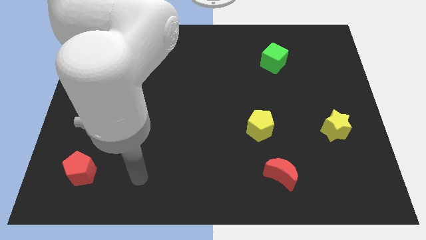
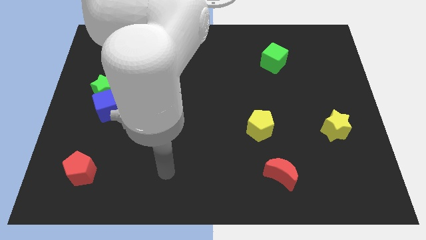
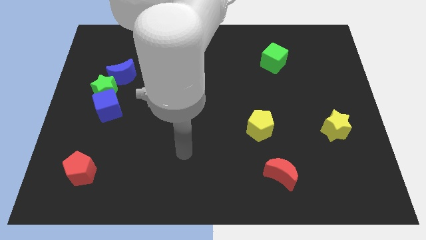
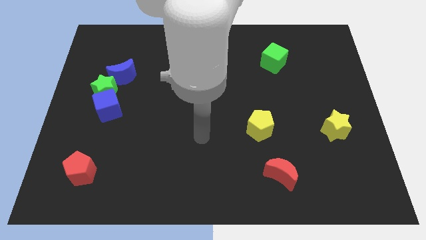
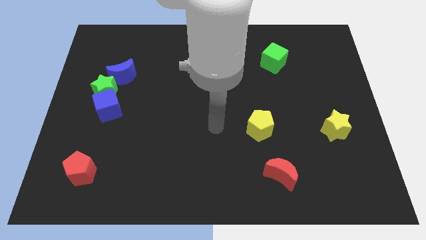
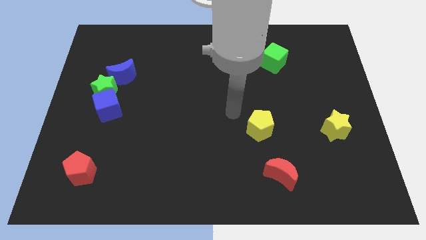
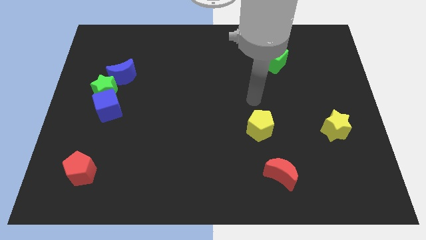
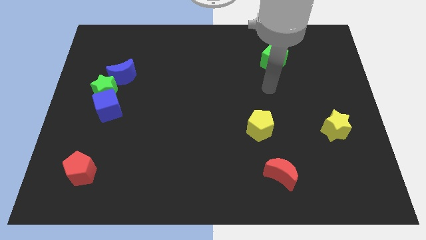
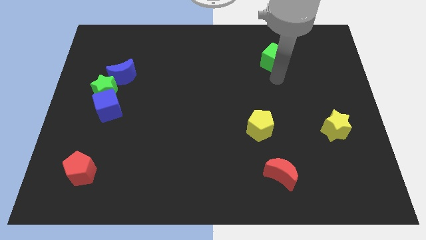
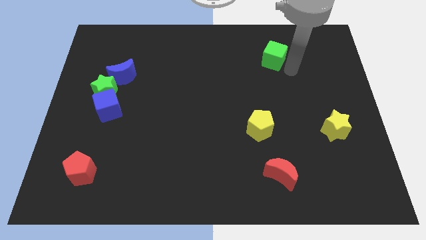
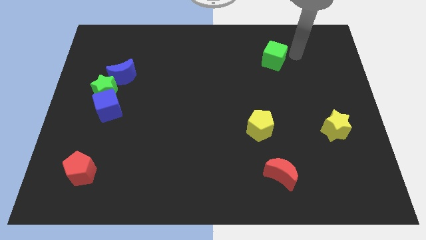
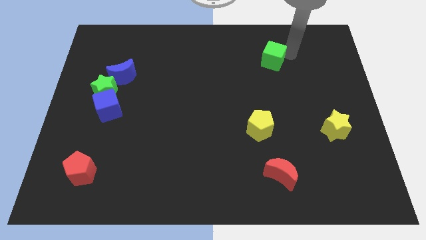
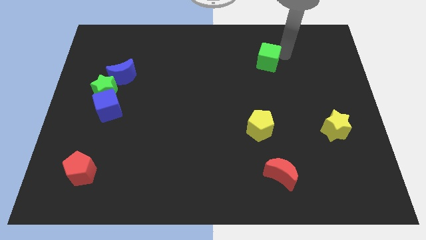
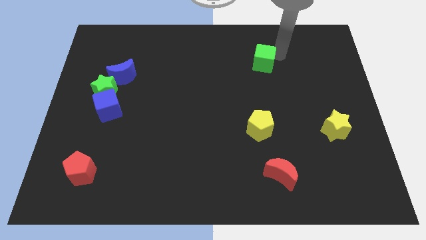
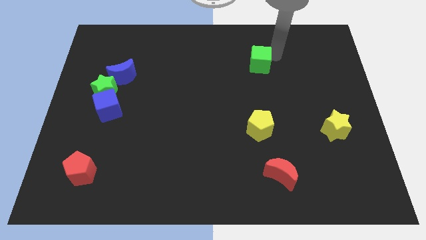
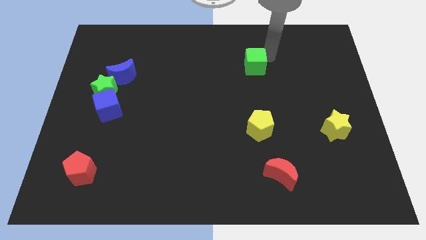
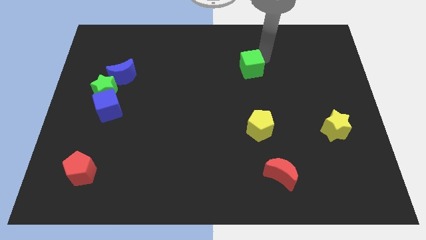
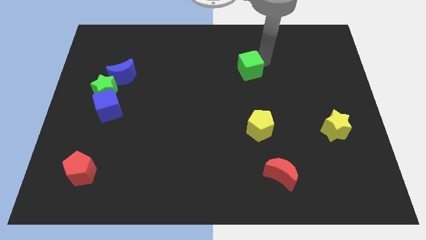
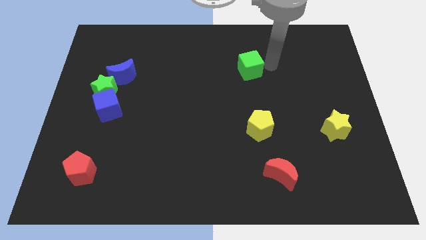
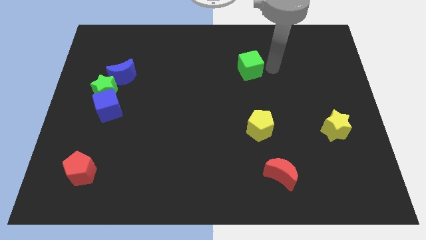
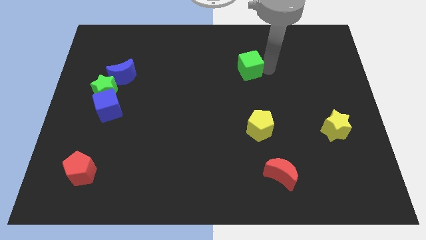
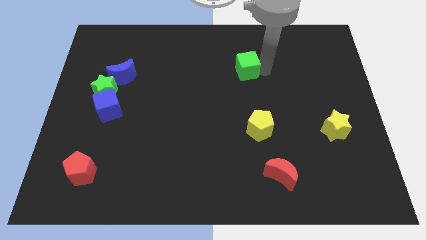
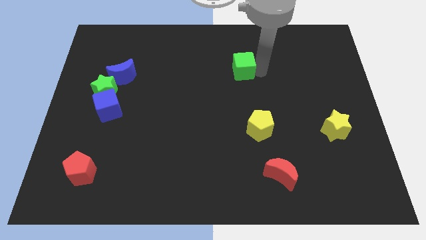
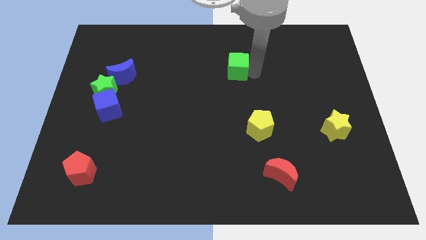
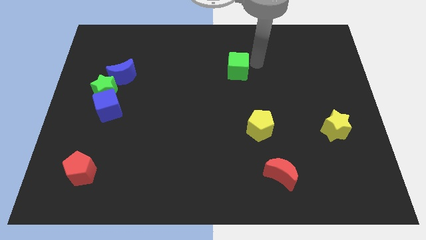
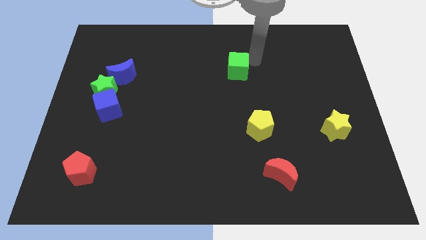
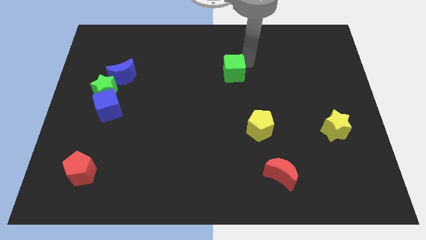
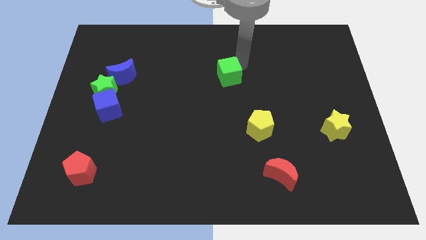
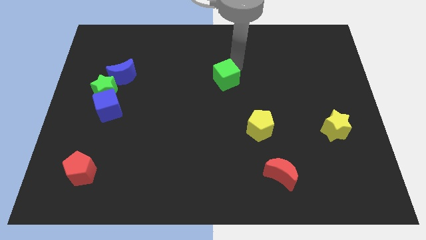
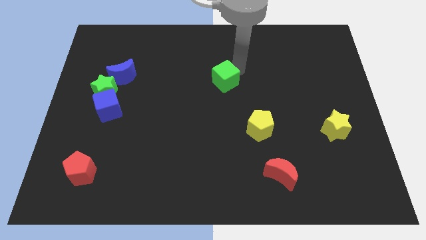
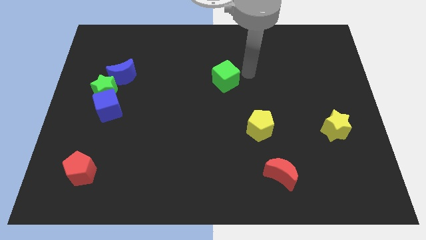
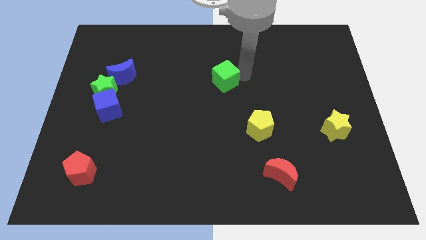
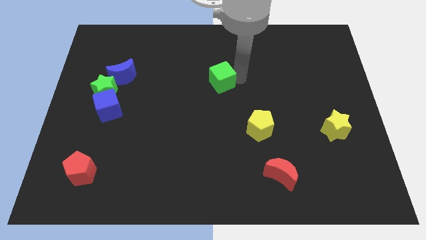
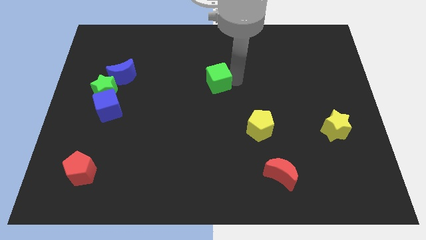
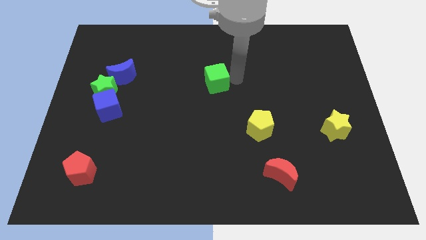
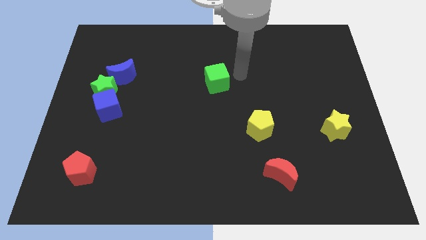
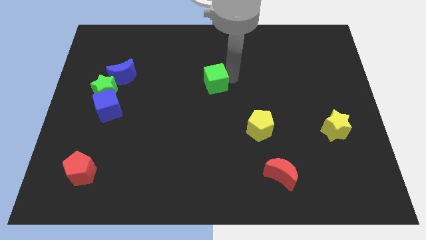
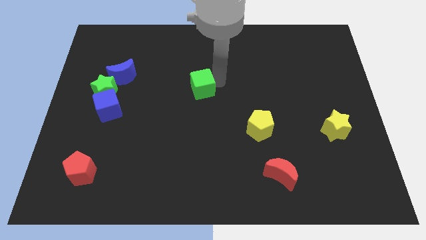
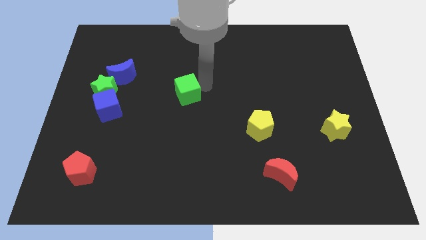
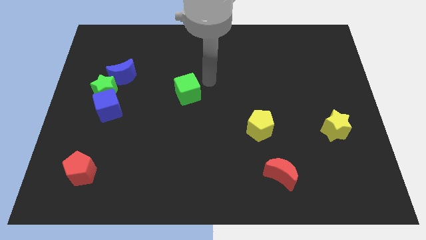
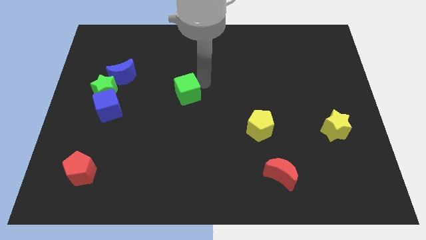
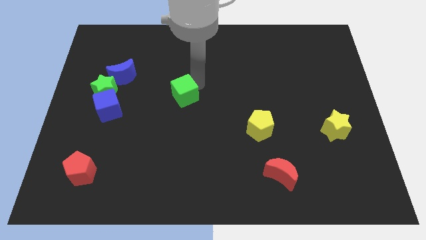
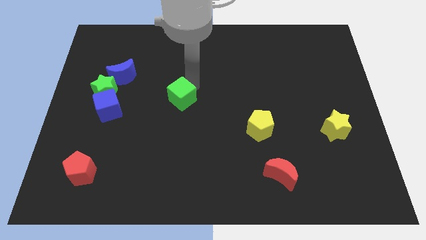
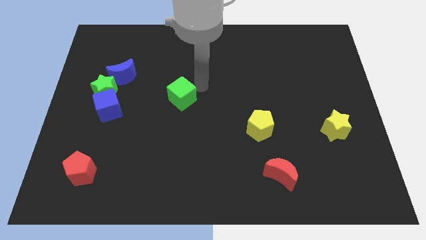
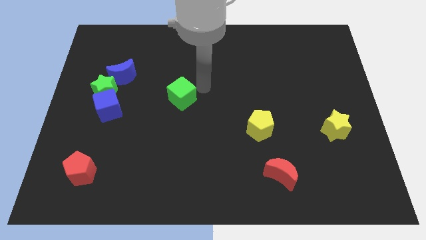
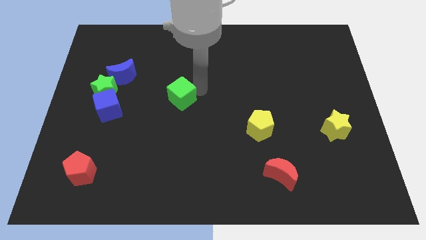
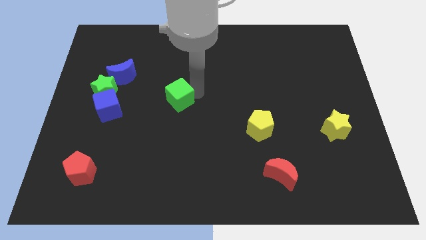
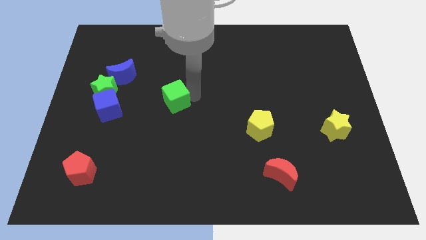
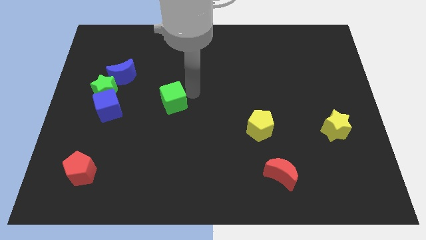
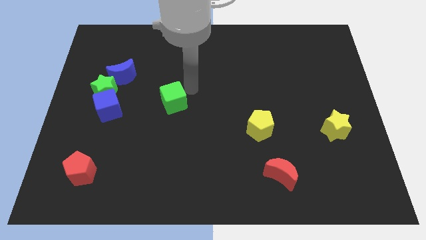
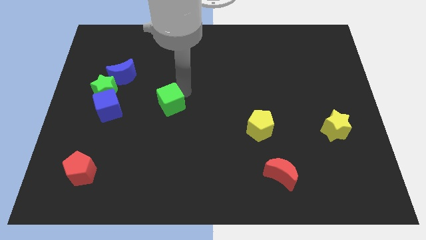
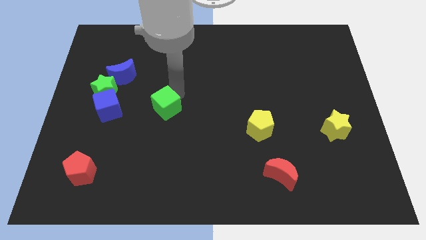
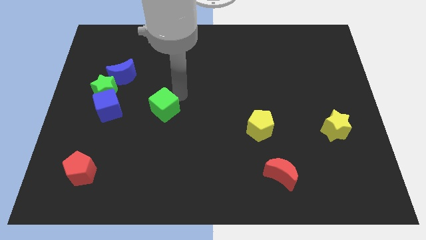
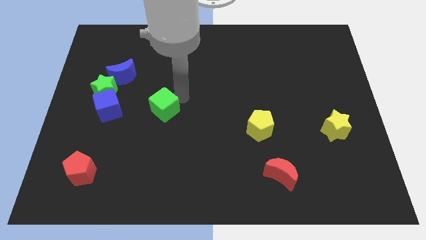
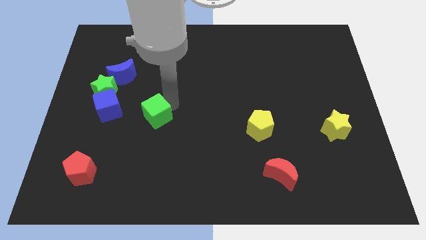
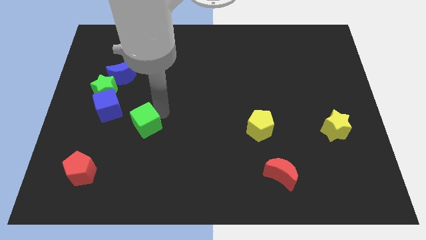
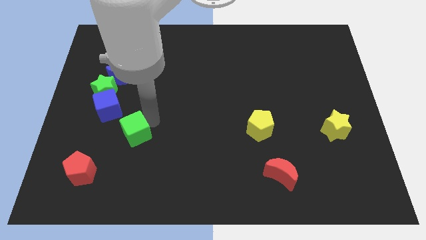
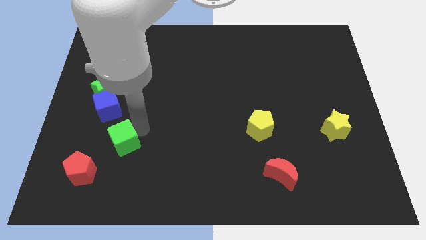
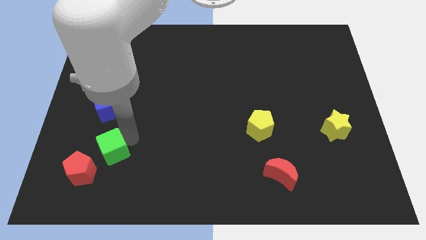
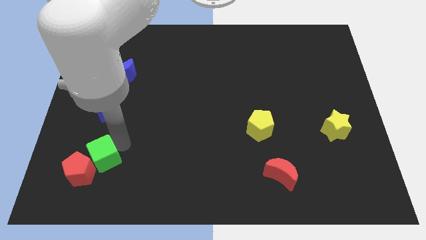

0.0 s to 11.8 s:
push the green cube next to the red pentagon
